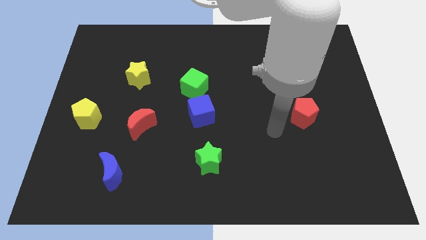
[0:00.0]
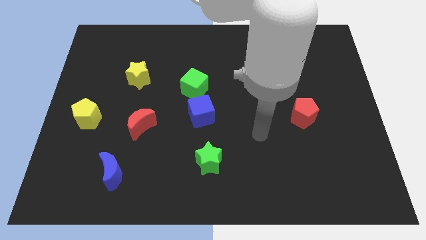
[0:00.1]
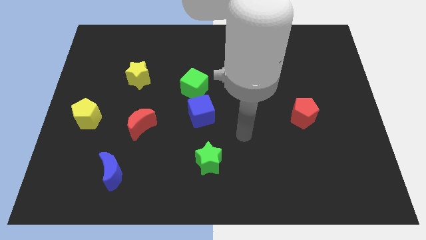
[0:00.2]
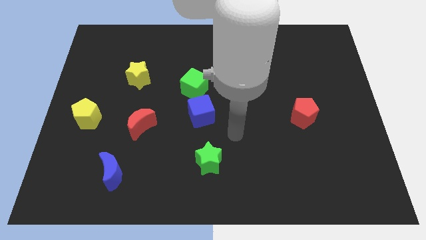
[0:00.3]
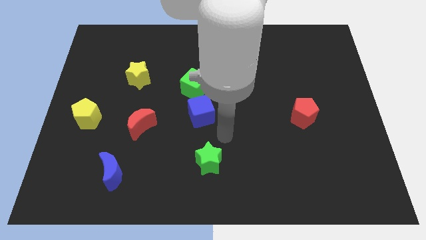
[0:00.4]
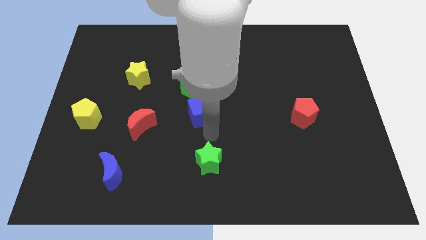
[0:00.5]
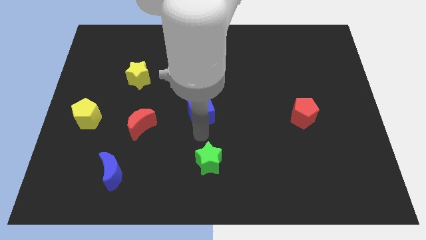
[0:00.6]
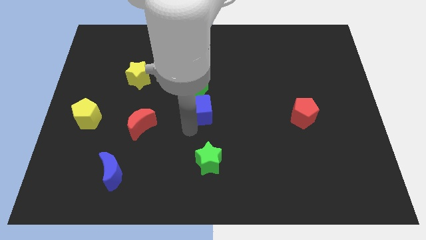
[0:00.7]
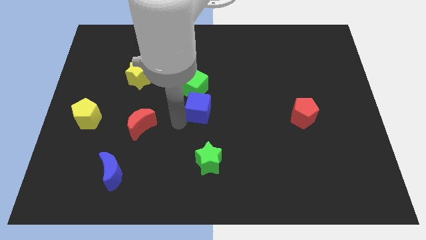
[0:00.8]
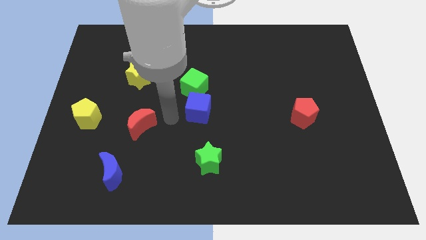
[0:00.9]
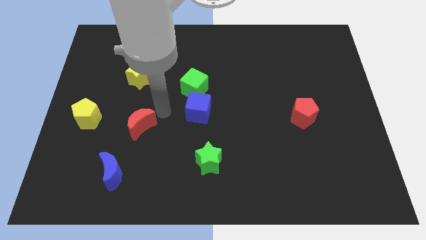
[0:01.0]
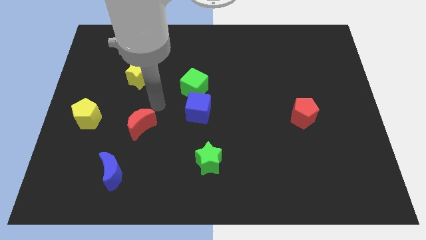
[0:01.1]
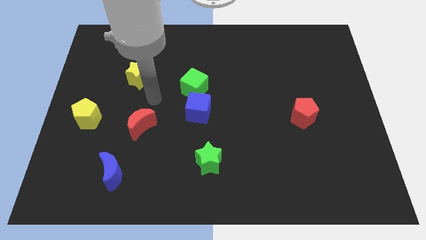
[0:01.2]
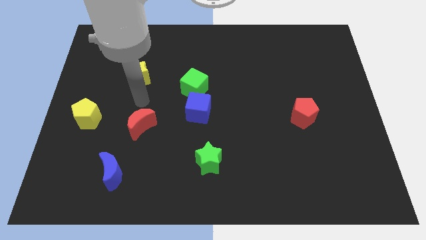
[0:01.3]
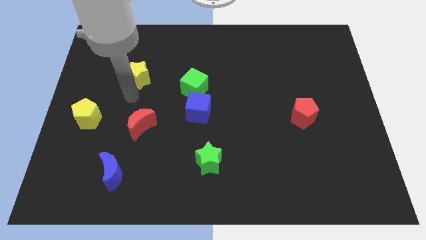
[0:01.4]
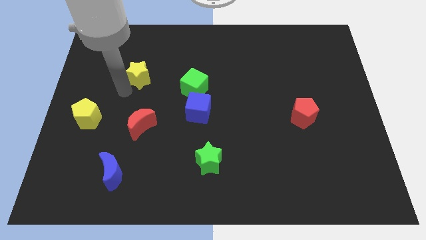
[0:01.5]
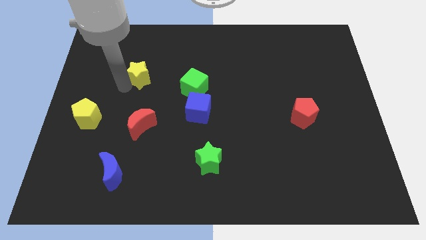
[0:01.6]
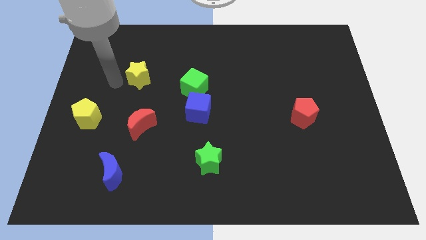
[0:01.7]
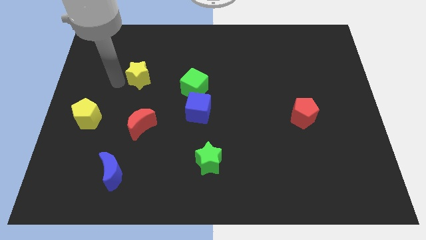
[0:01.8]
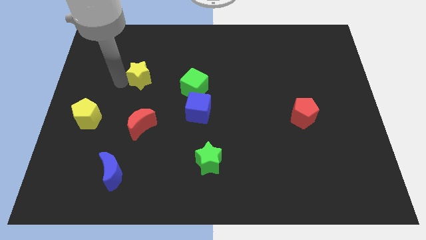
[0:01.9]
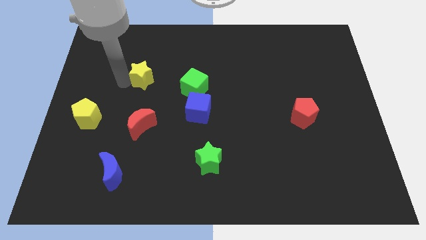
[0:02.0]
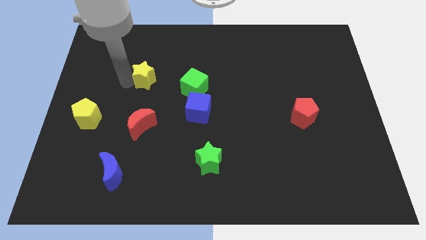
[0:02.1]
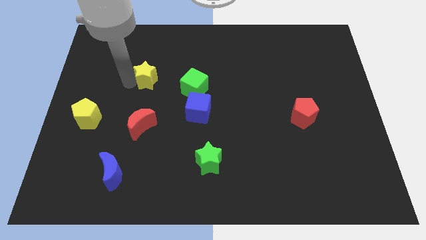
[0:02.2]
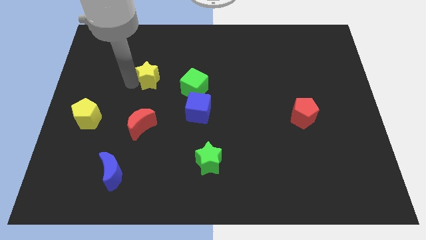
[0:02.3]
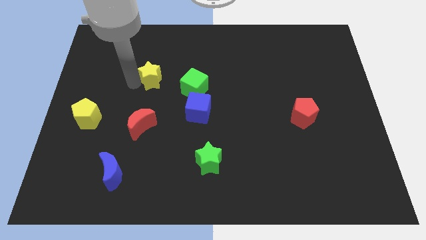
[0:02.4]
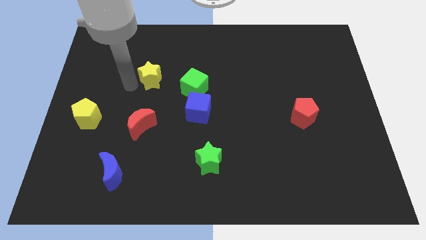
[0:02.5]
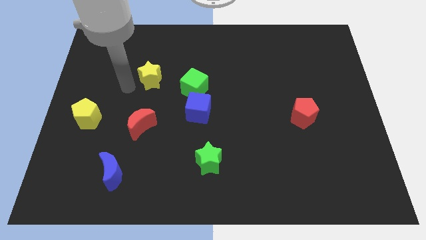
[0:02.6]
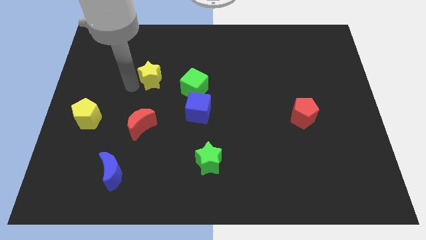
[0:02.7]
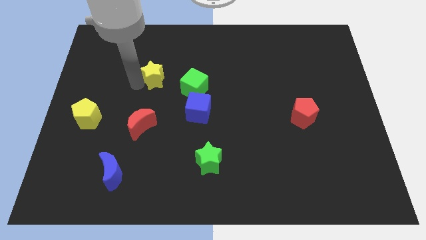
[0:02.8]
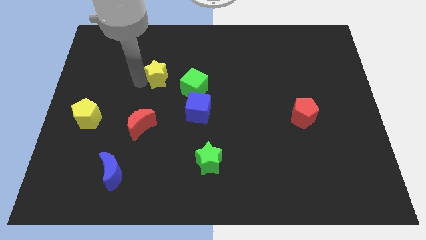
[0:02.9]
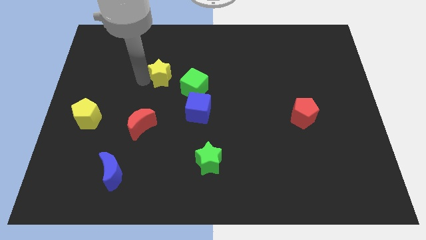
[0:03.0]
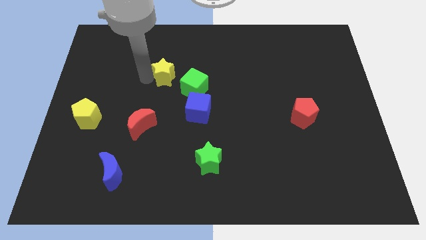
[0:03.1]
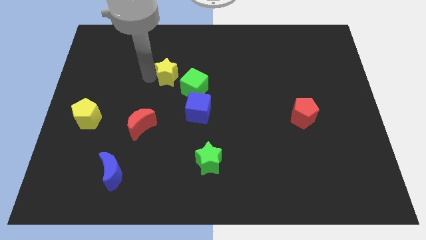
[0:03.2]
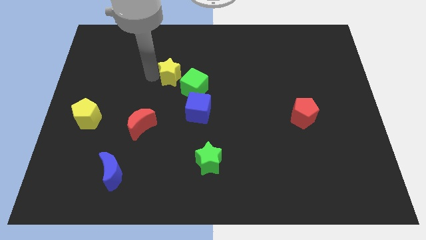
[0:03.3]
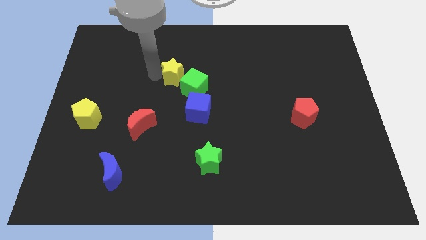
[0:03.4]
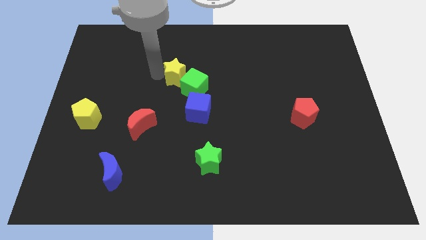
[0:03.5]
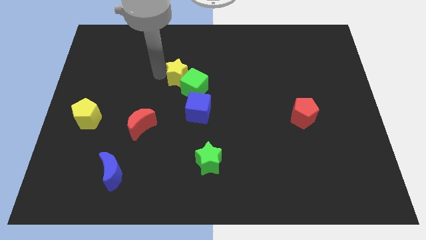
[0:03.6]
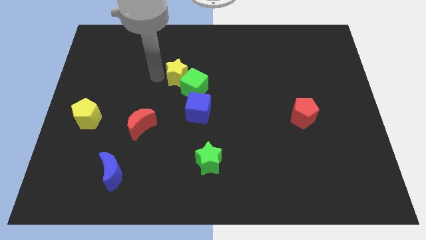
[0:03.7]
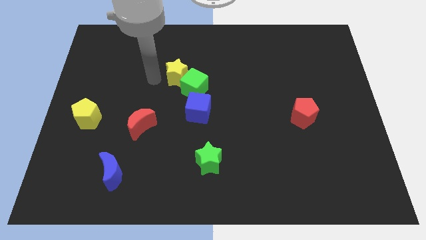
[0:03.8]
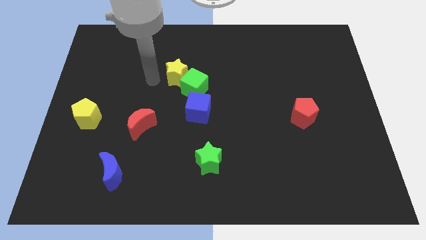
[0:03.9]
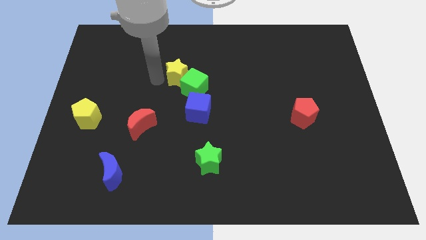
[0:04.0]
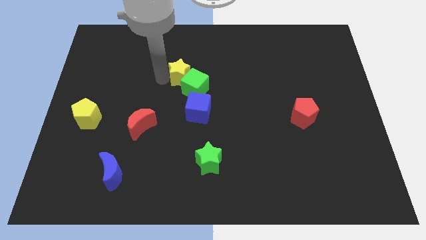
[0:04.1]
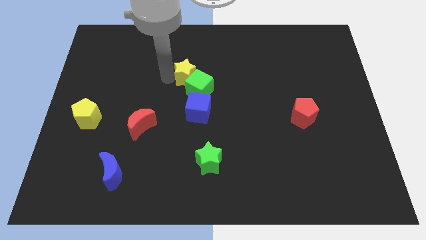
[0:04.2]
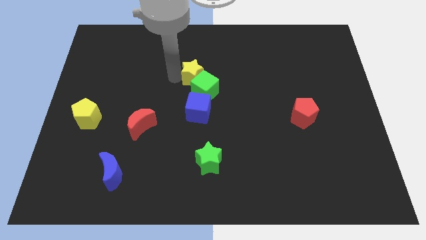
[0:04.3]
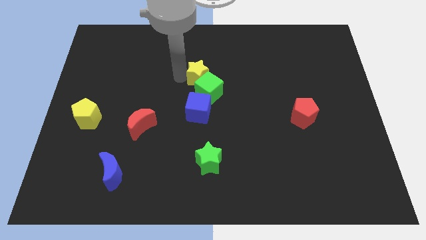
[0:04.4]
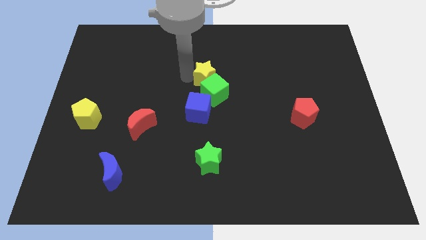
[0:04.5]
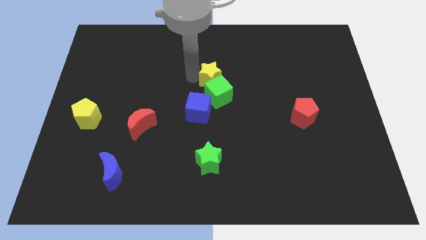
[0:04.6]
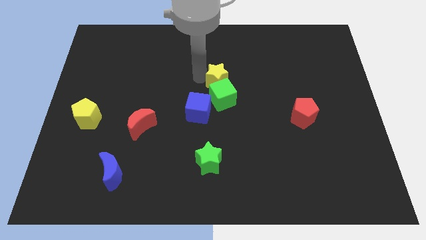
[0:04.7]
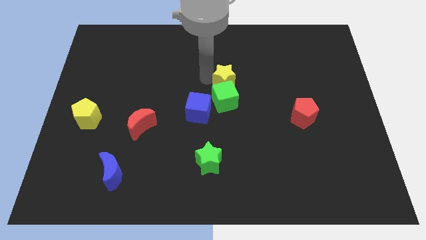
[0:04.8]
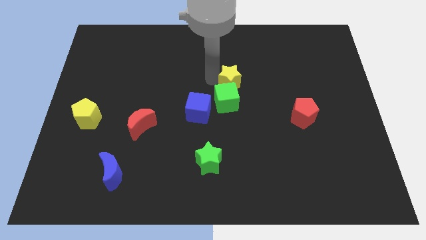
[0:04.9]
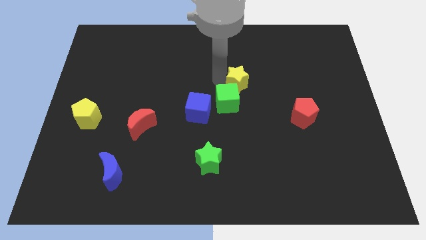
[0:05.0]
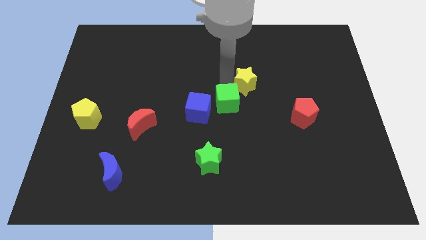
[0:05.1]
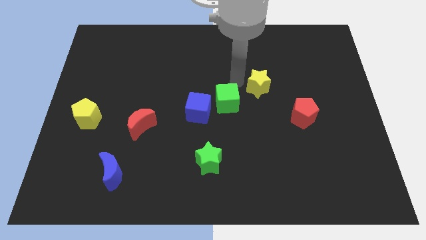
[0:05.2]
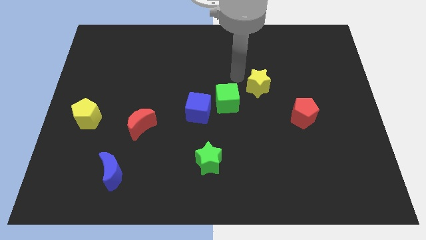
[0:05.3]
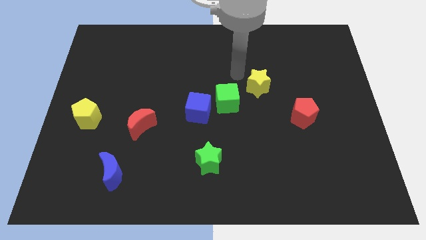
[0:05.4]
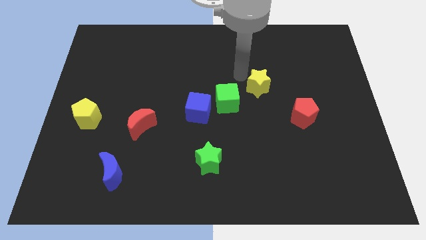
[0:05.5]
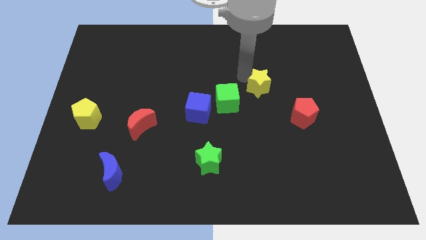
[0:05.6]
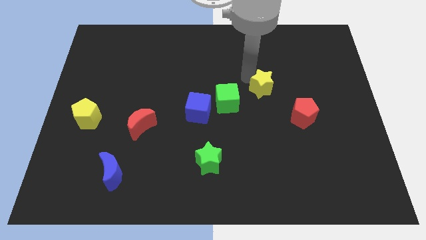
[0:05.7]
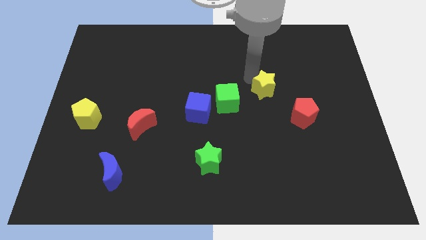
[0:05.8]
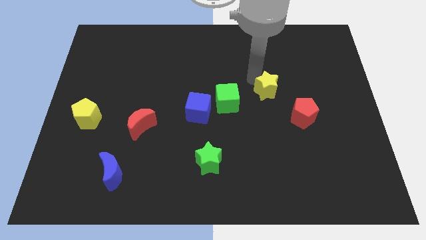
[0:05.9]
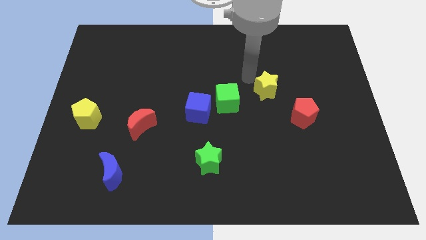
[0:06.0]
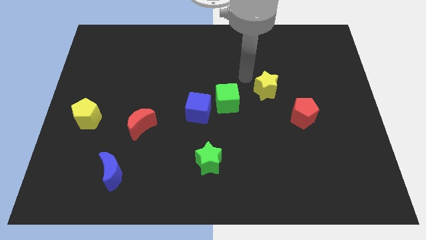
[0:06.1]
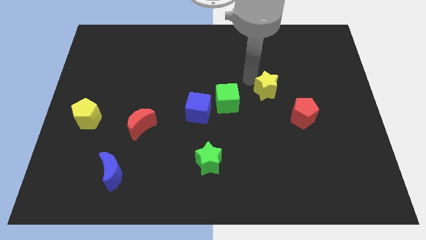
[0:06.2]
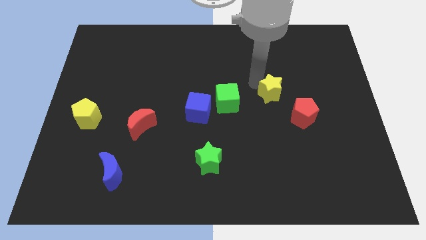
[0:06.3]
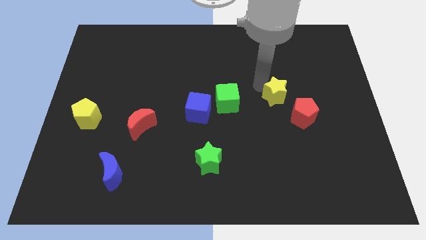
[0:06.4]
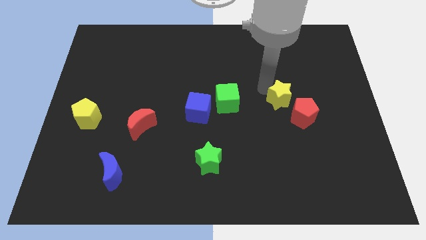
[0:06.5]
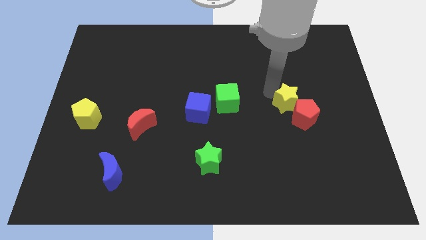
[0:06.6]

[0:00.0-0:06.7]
push the yellow star close to the red pentagon
